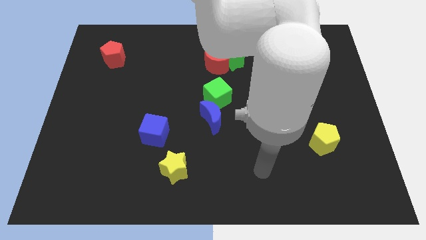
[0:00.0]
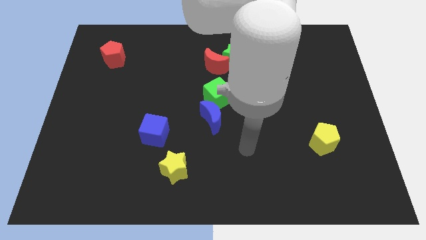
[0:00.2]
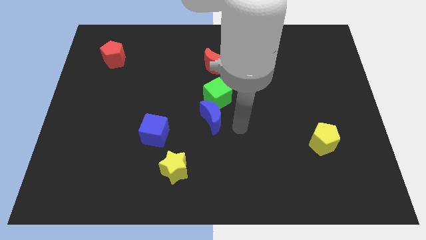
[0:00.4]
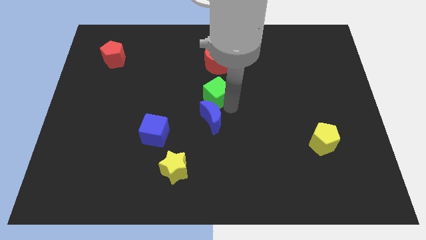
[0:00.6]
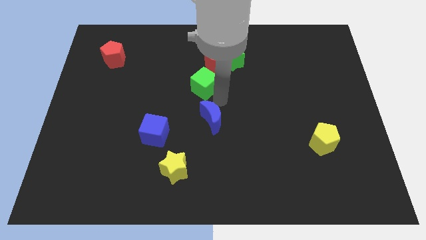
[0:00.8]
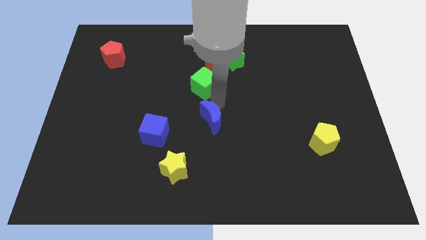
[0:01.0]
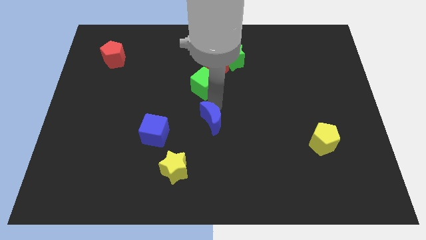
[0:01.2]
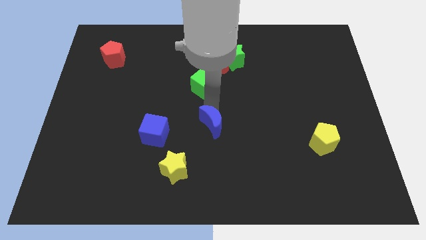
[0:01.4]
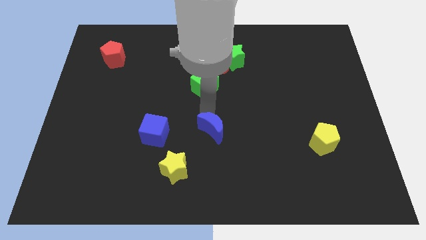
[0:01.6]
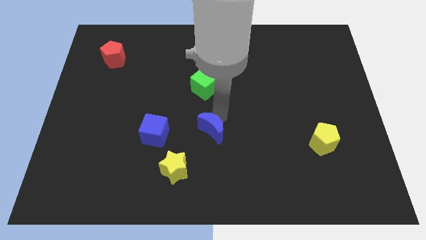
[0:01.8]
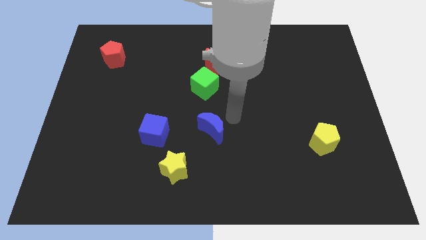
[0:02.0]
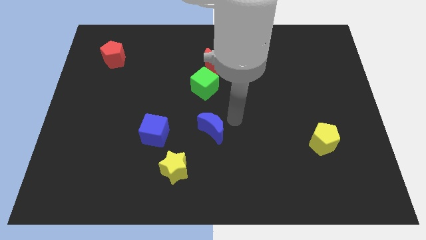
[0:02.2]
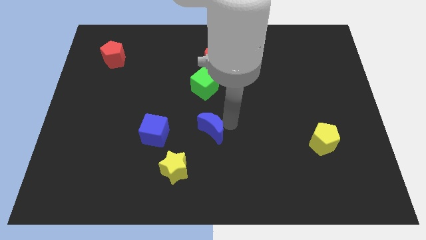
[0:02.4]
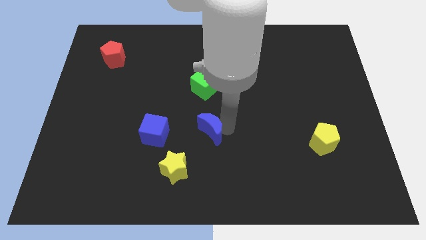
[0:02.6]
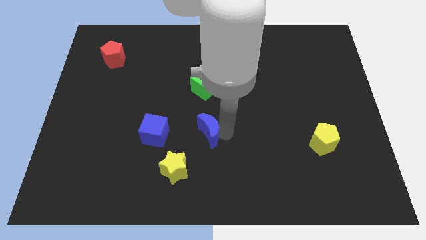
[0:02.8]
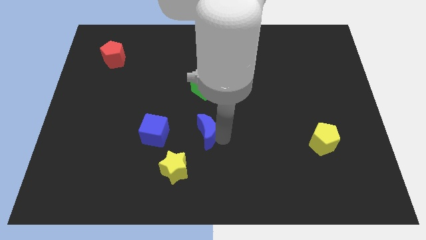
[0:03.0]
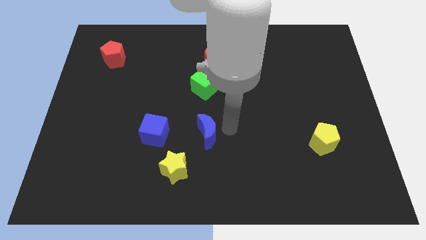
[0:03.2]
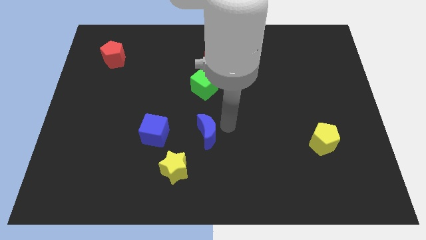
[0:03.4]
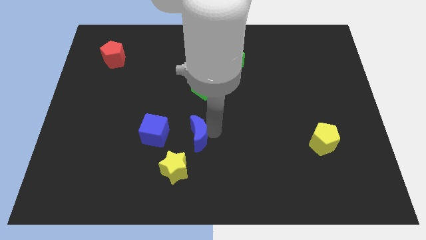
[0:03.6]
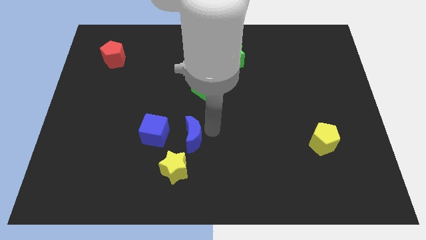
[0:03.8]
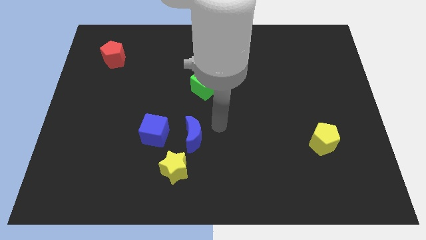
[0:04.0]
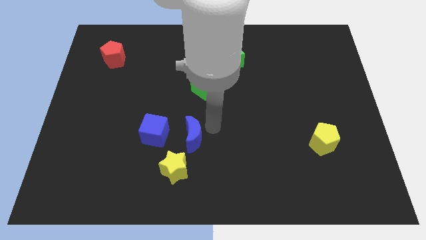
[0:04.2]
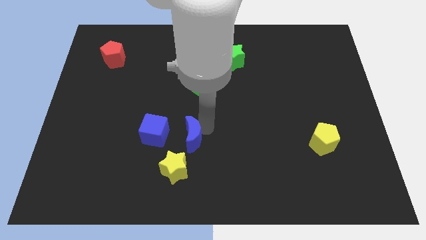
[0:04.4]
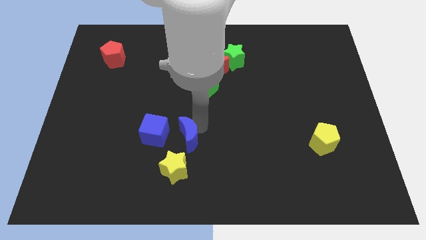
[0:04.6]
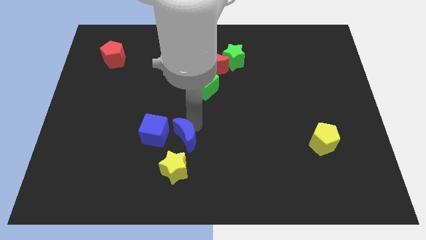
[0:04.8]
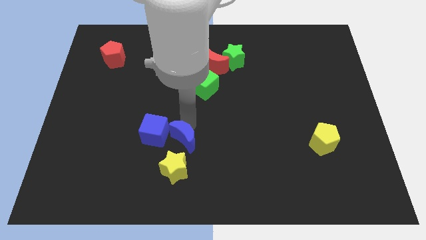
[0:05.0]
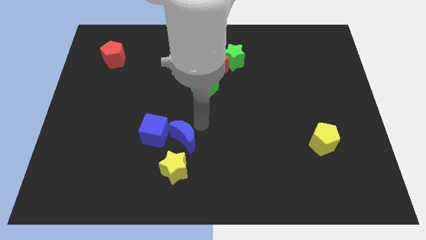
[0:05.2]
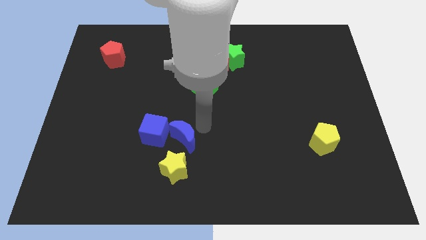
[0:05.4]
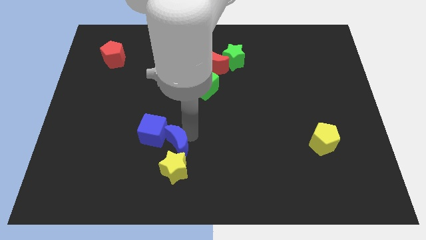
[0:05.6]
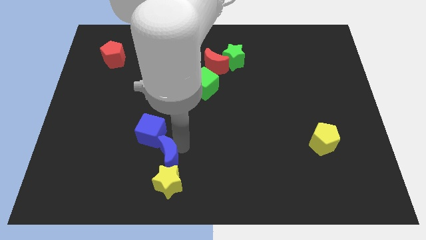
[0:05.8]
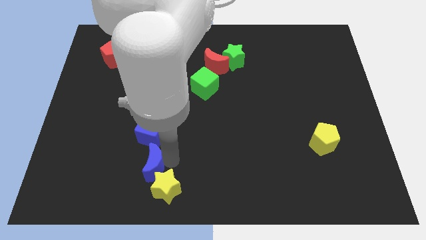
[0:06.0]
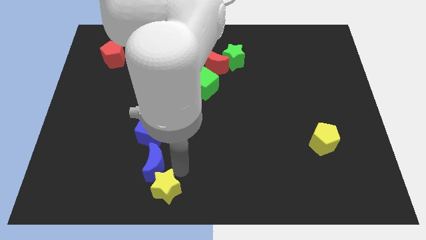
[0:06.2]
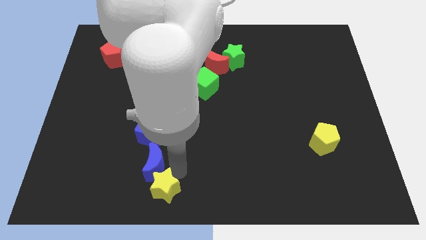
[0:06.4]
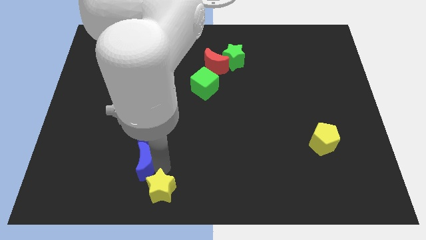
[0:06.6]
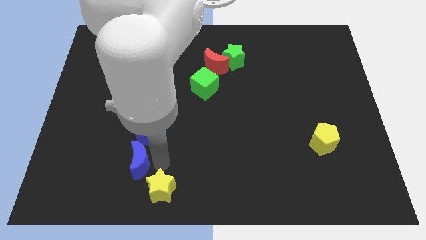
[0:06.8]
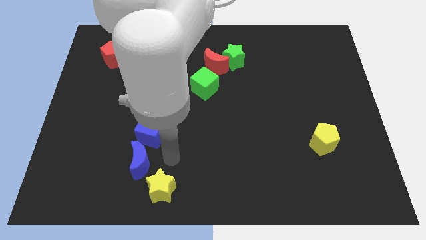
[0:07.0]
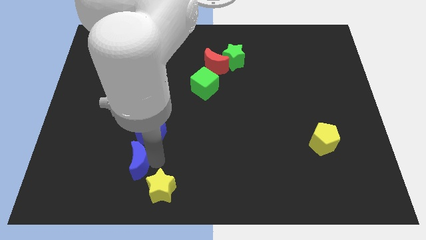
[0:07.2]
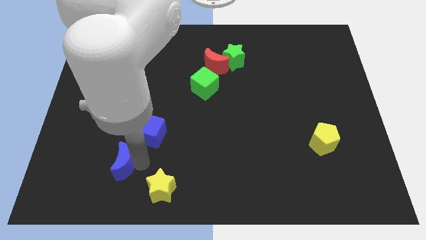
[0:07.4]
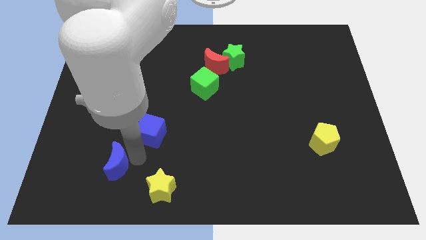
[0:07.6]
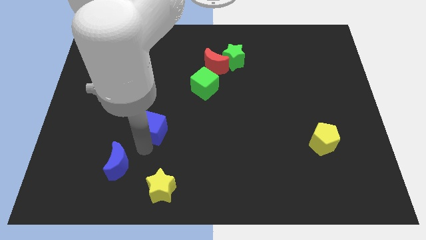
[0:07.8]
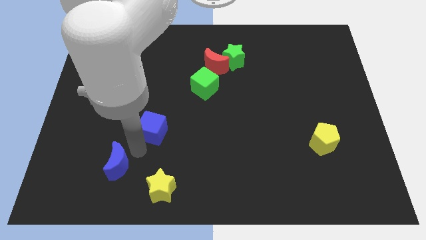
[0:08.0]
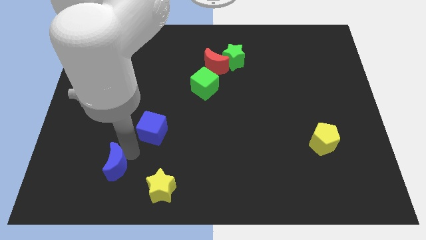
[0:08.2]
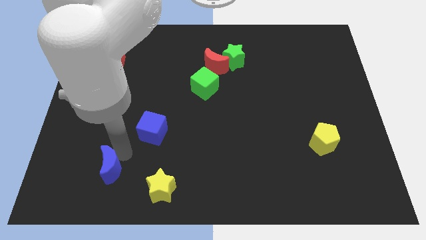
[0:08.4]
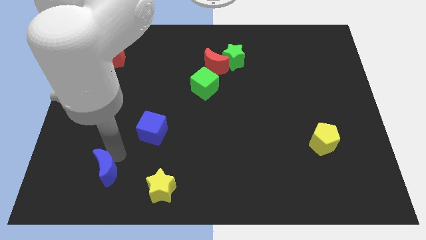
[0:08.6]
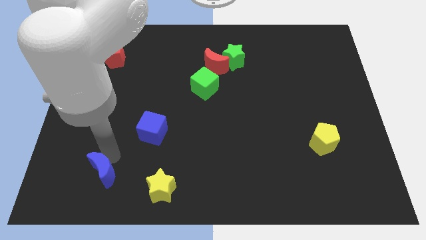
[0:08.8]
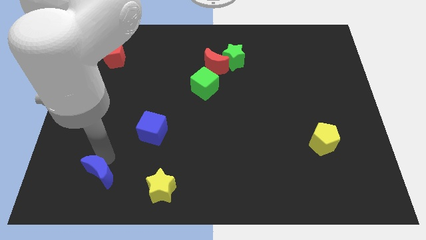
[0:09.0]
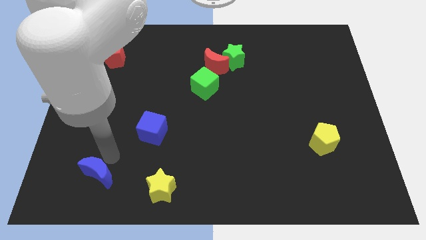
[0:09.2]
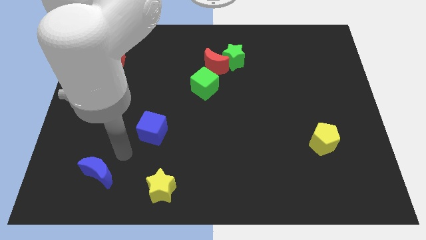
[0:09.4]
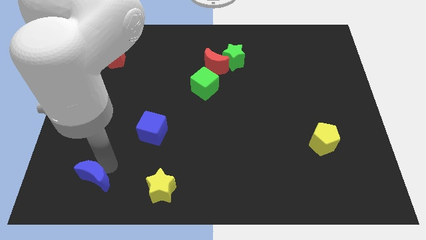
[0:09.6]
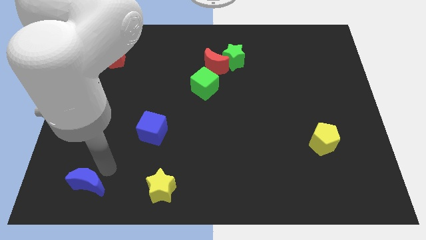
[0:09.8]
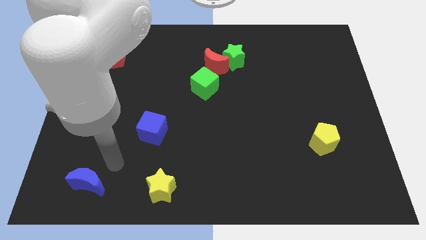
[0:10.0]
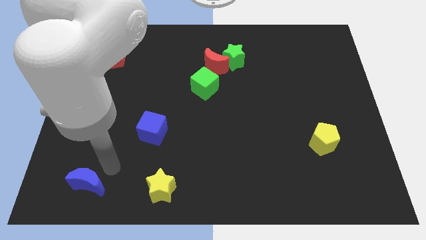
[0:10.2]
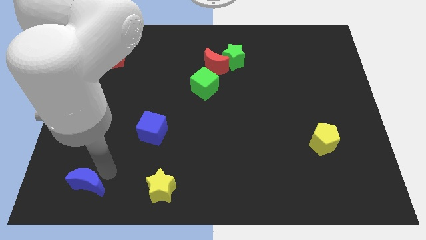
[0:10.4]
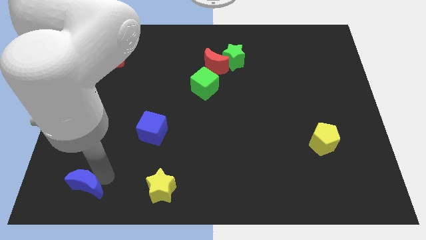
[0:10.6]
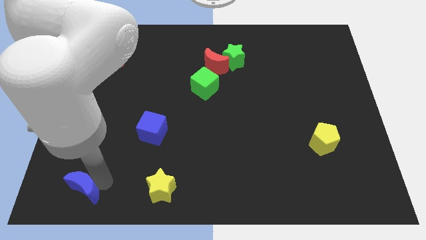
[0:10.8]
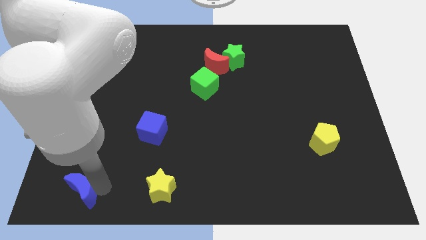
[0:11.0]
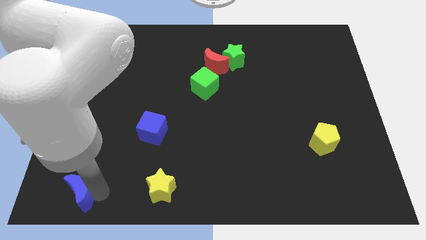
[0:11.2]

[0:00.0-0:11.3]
put the blue moon to the bottom left corner
